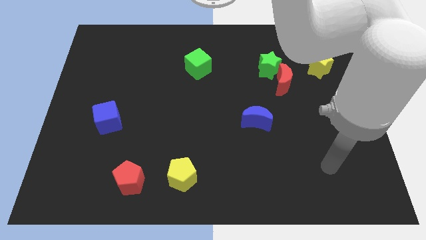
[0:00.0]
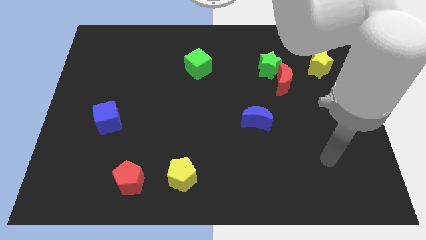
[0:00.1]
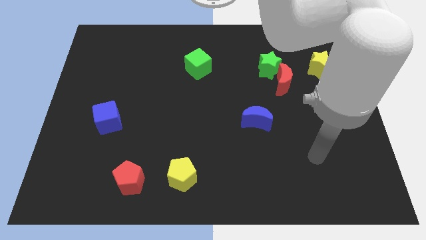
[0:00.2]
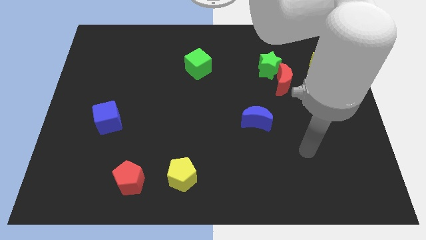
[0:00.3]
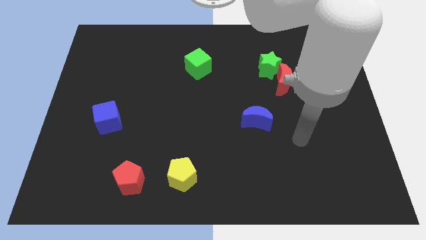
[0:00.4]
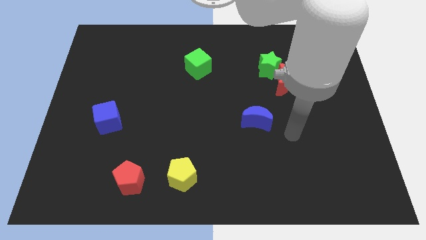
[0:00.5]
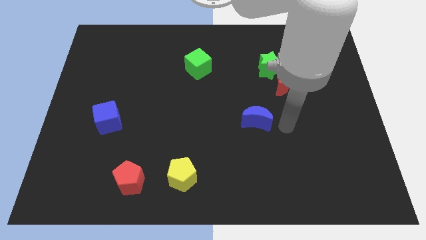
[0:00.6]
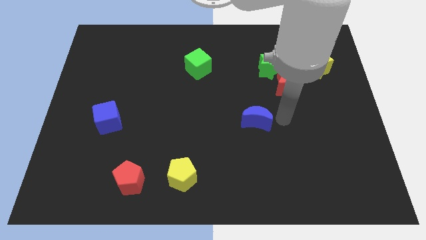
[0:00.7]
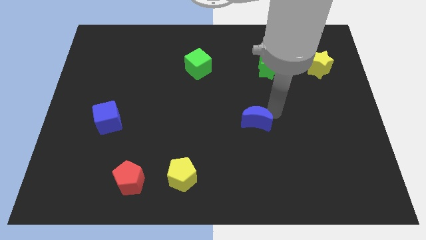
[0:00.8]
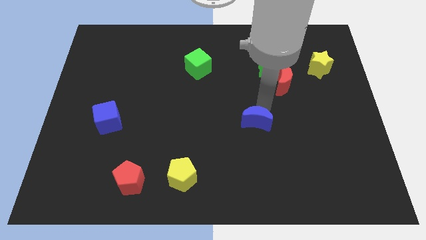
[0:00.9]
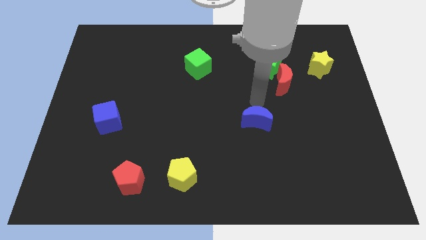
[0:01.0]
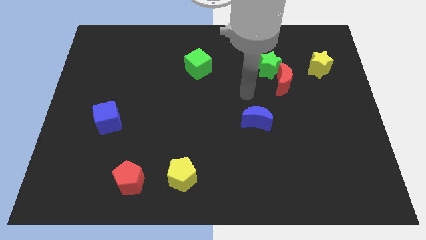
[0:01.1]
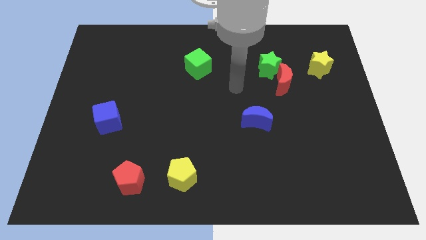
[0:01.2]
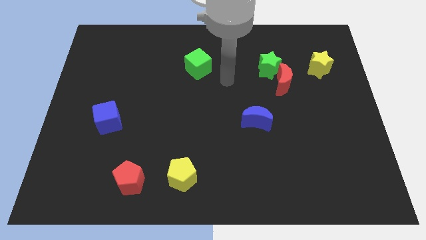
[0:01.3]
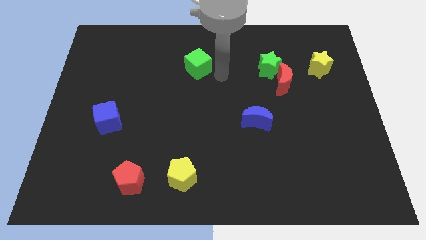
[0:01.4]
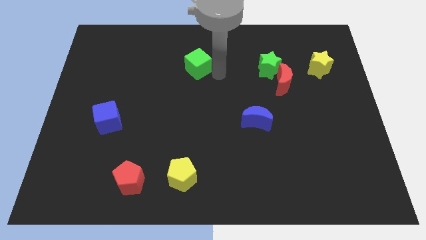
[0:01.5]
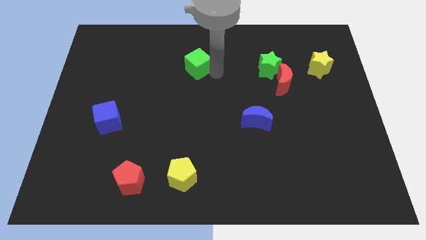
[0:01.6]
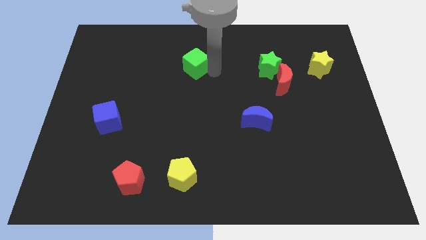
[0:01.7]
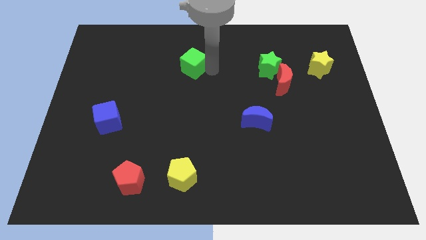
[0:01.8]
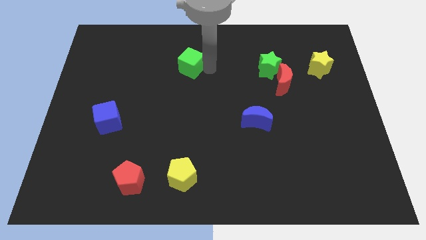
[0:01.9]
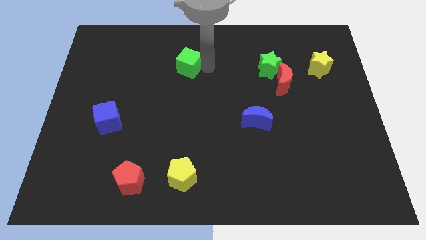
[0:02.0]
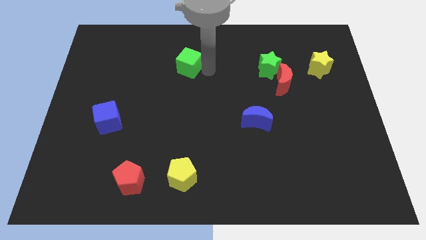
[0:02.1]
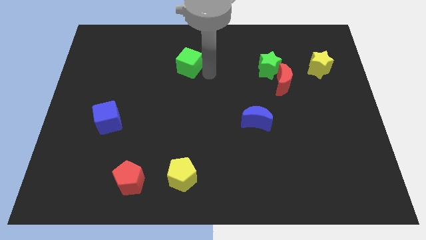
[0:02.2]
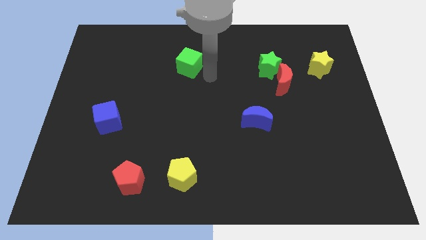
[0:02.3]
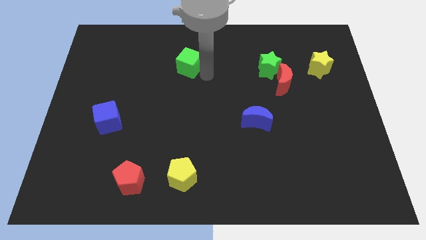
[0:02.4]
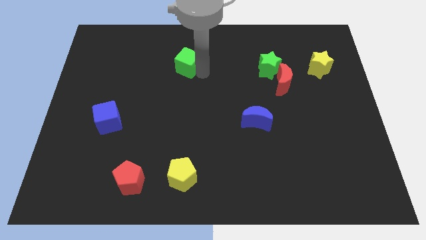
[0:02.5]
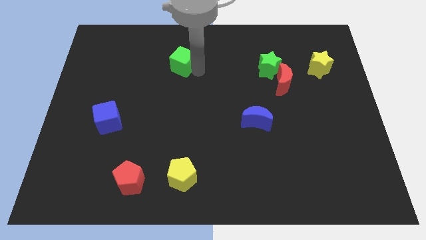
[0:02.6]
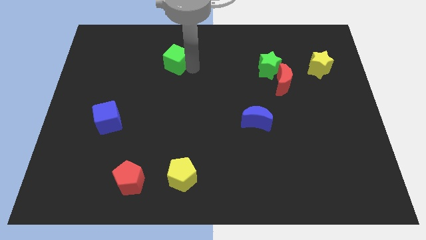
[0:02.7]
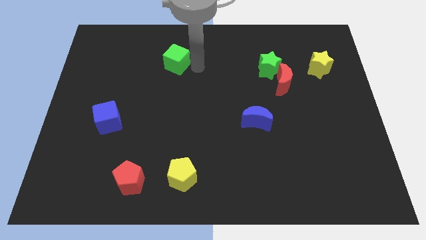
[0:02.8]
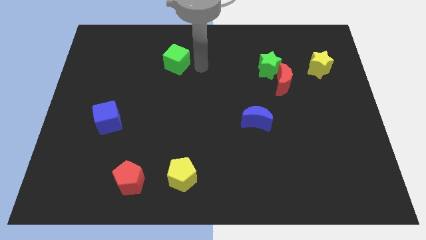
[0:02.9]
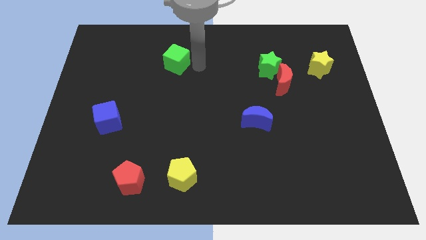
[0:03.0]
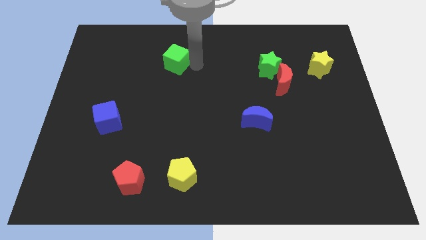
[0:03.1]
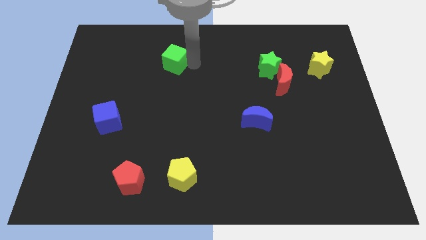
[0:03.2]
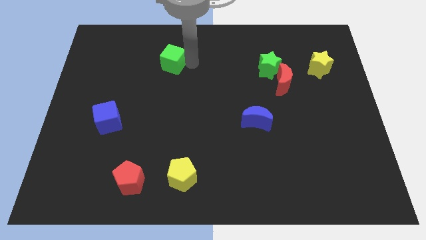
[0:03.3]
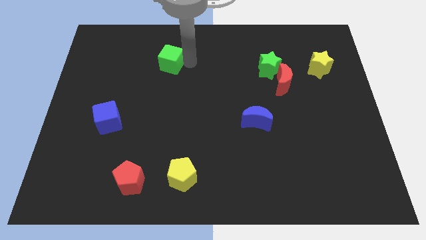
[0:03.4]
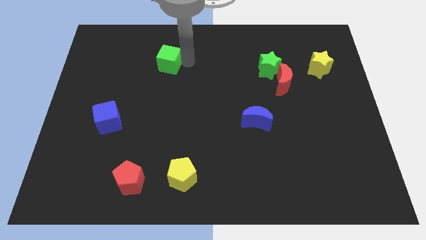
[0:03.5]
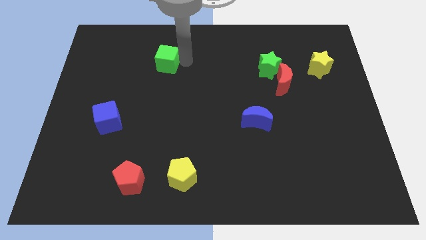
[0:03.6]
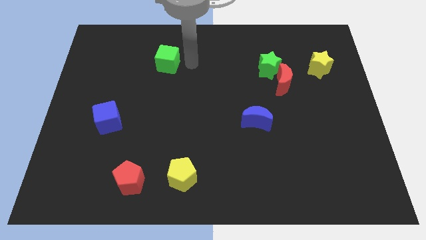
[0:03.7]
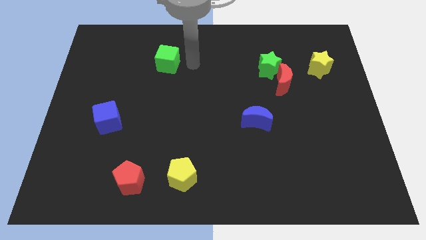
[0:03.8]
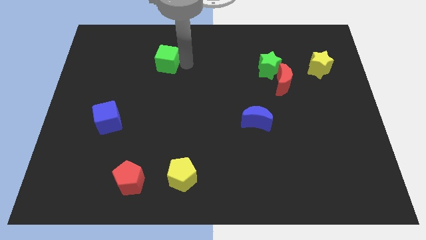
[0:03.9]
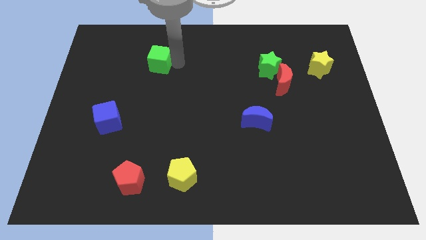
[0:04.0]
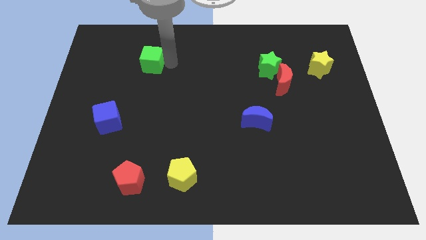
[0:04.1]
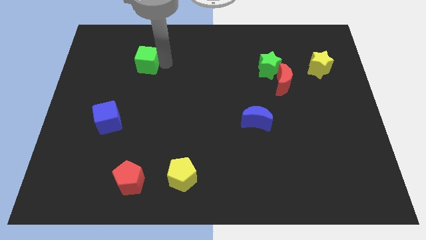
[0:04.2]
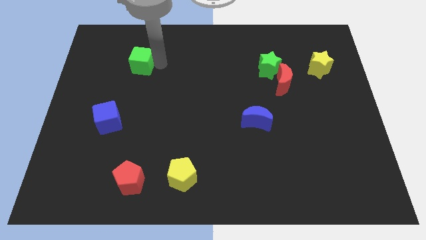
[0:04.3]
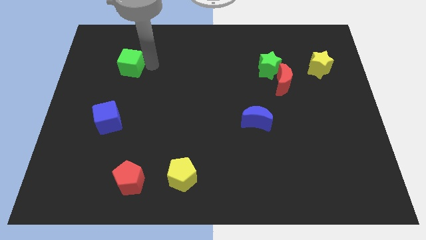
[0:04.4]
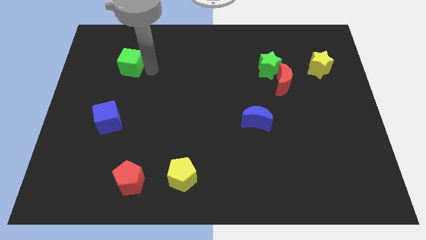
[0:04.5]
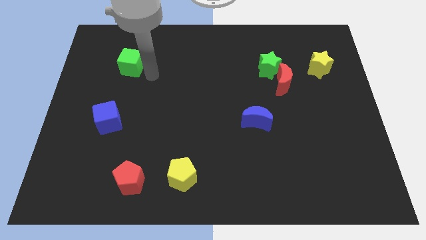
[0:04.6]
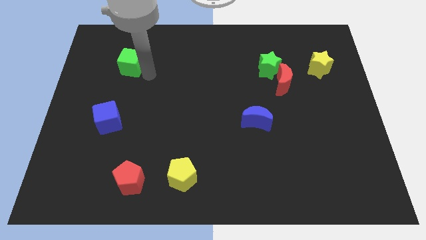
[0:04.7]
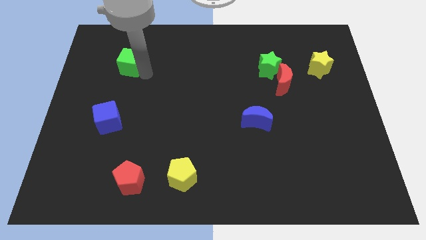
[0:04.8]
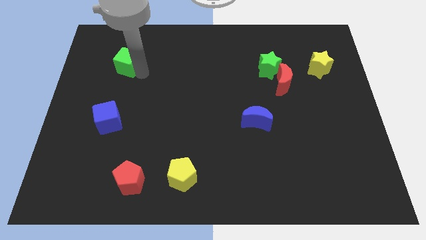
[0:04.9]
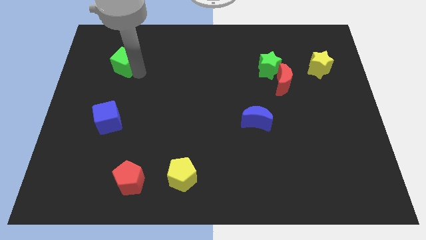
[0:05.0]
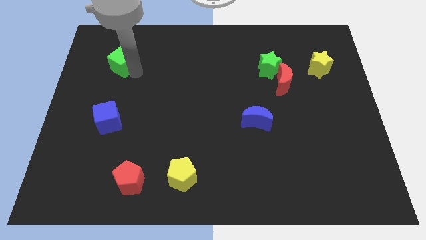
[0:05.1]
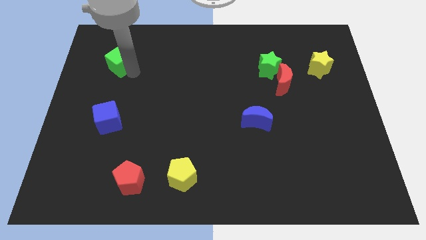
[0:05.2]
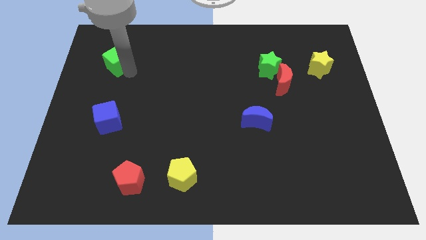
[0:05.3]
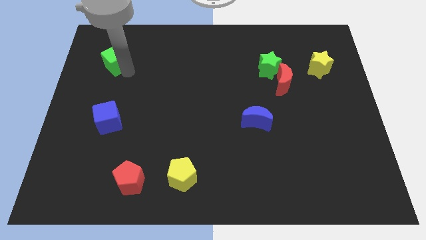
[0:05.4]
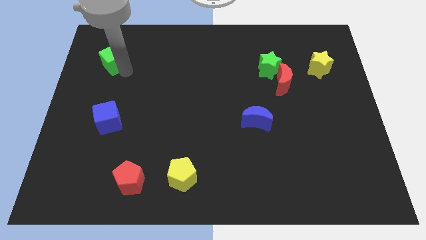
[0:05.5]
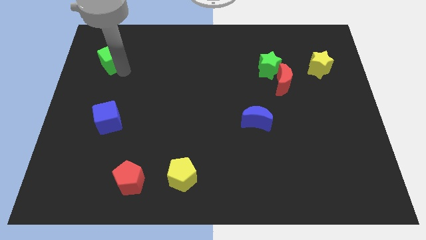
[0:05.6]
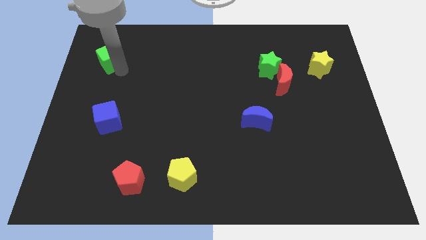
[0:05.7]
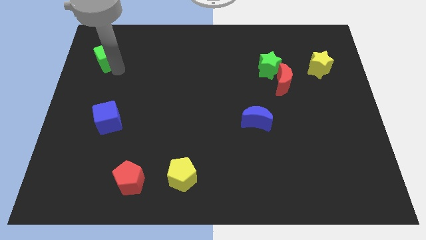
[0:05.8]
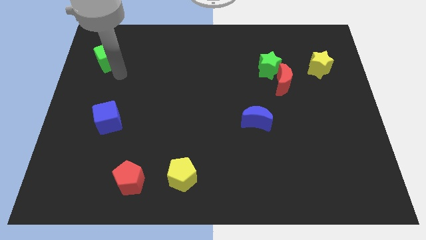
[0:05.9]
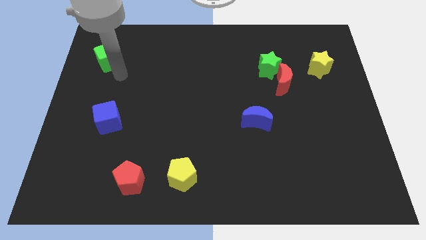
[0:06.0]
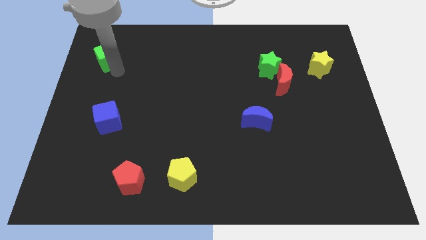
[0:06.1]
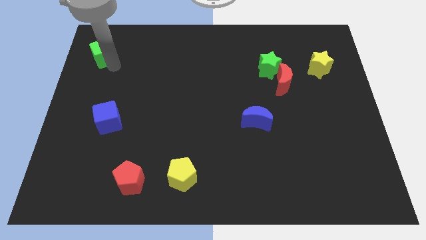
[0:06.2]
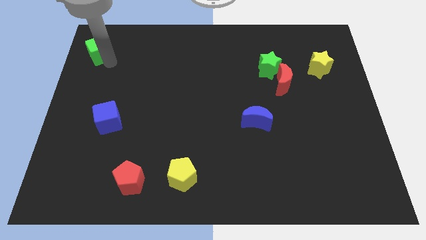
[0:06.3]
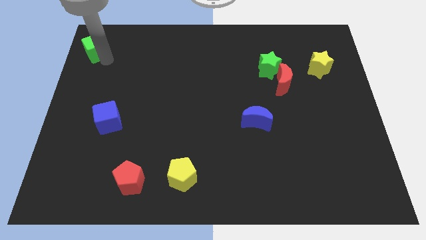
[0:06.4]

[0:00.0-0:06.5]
move the green cube to the top left corner
